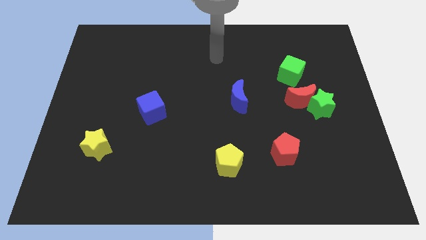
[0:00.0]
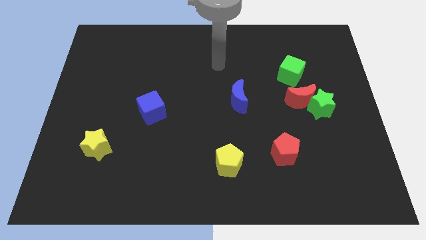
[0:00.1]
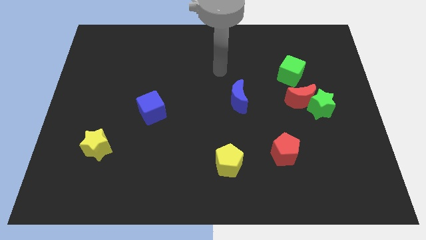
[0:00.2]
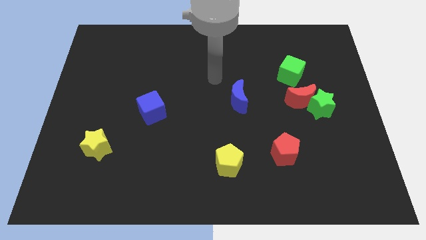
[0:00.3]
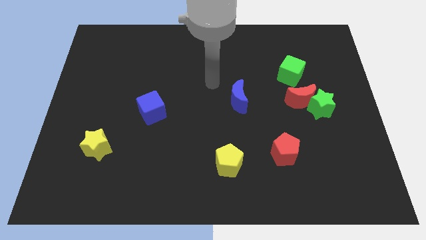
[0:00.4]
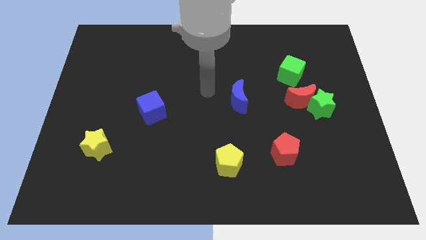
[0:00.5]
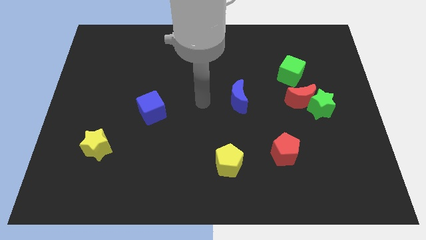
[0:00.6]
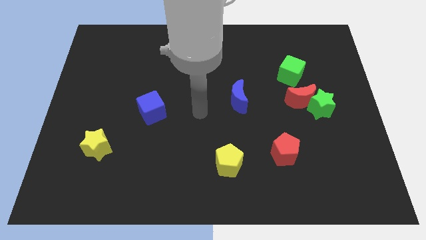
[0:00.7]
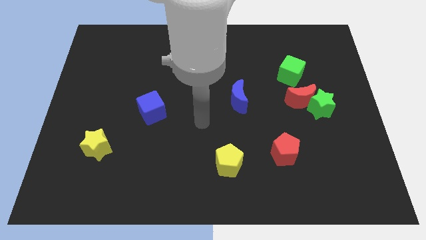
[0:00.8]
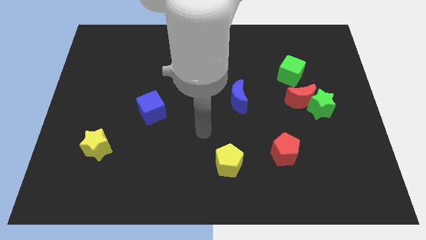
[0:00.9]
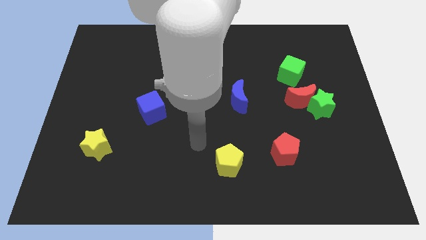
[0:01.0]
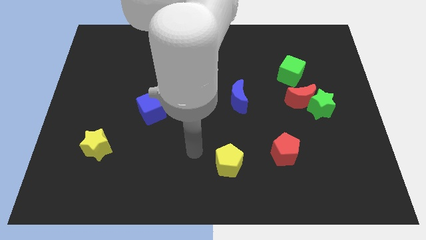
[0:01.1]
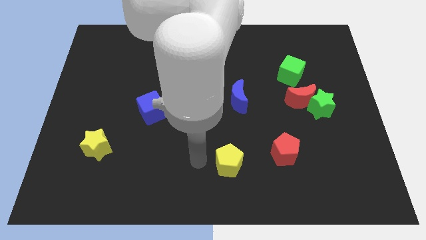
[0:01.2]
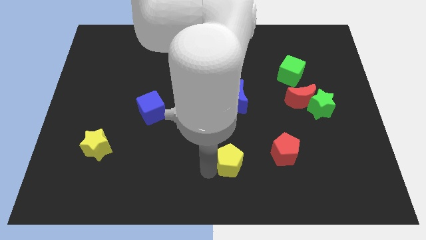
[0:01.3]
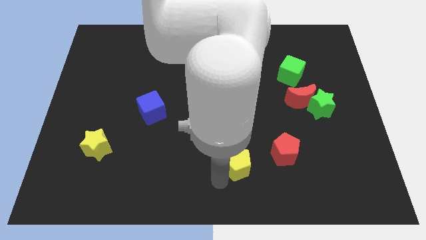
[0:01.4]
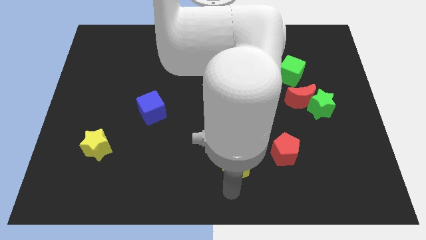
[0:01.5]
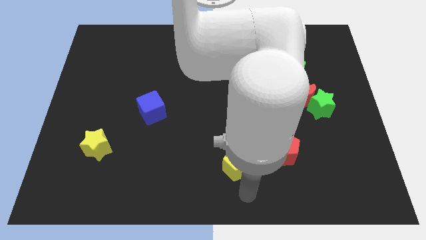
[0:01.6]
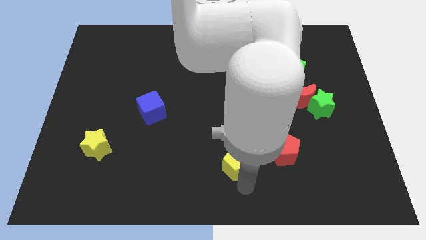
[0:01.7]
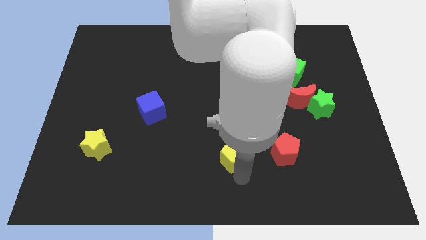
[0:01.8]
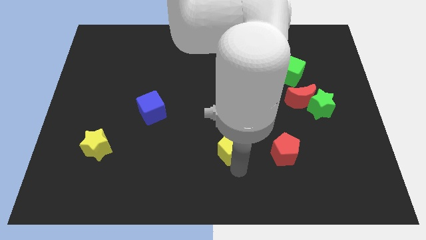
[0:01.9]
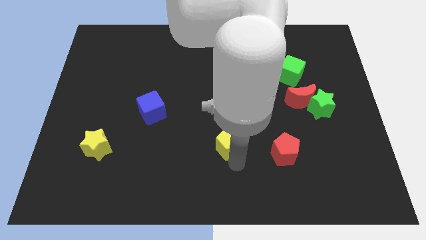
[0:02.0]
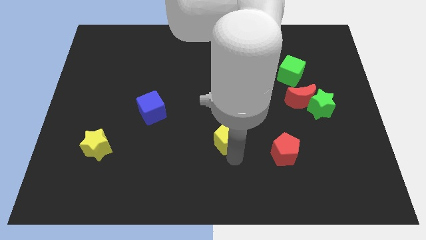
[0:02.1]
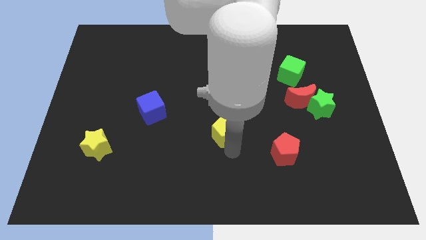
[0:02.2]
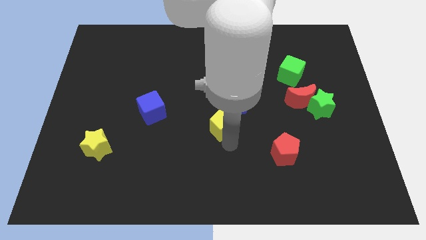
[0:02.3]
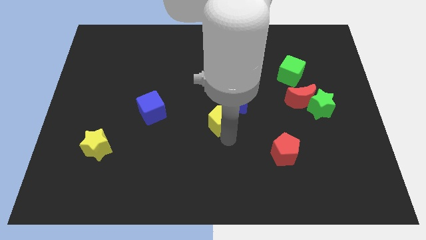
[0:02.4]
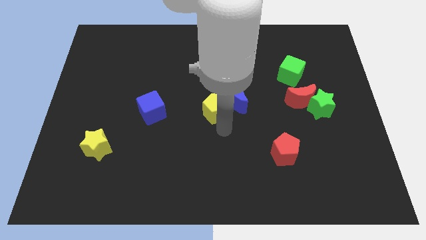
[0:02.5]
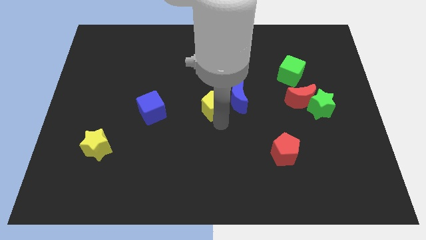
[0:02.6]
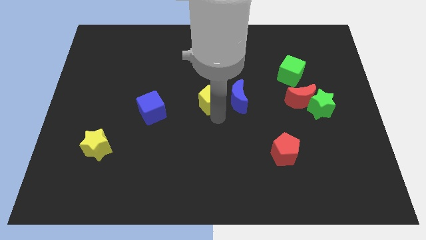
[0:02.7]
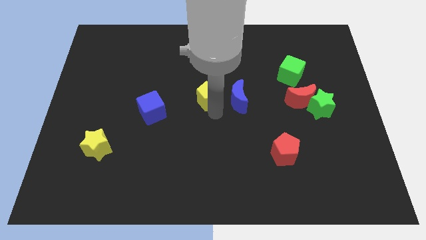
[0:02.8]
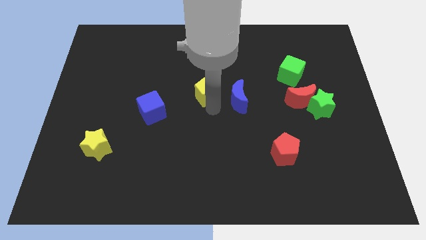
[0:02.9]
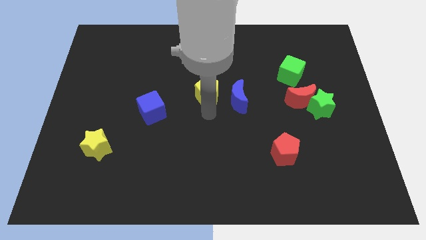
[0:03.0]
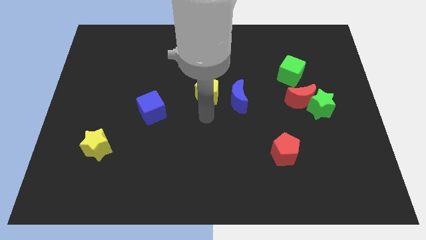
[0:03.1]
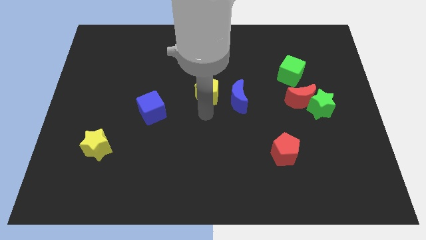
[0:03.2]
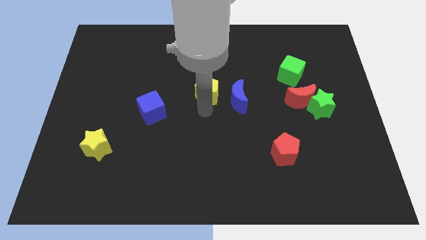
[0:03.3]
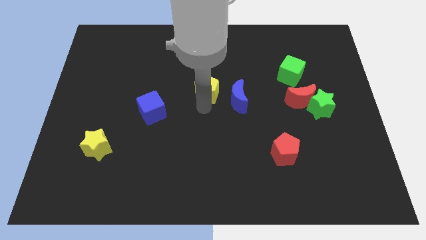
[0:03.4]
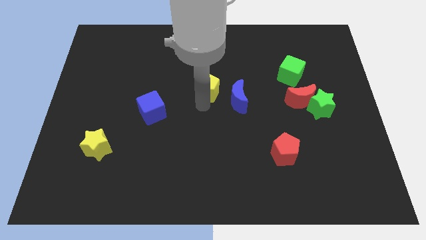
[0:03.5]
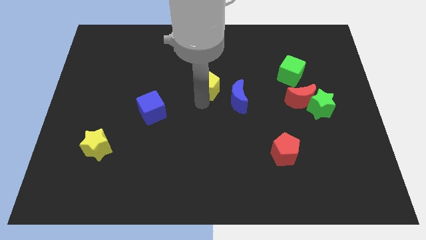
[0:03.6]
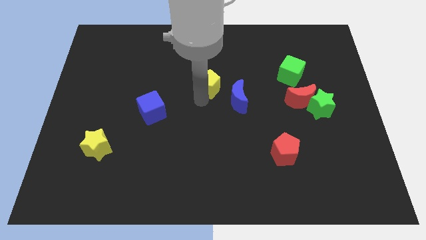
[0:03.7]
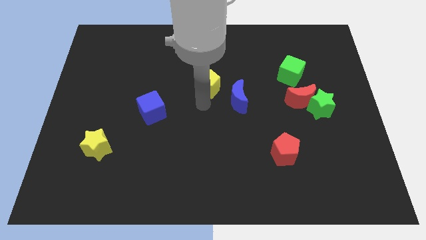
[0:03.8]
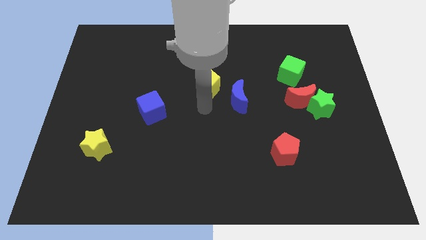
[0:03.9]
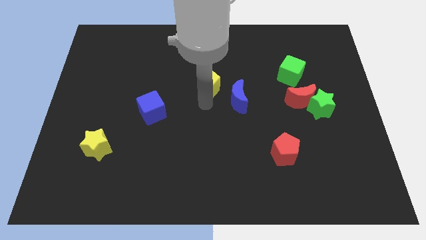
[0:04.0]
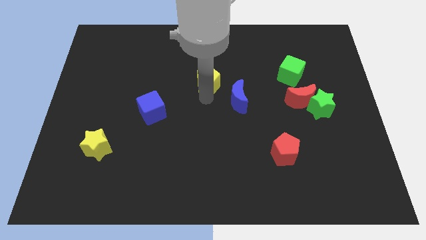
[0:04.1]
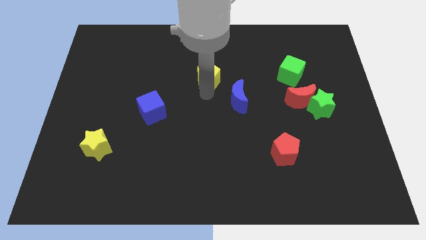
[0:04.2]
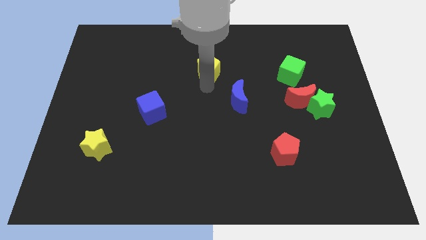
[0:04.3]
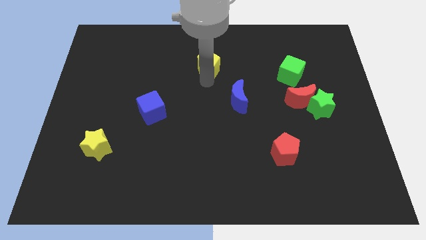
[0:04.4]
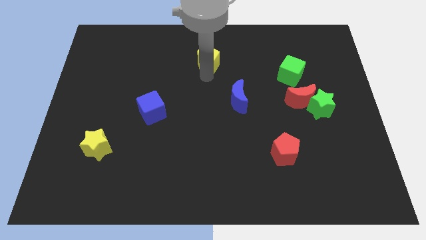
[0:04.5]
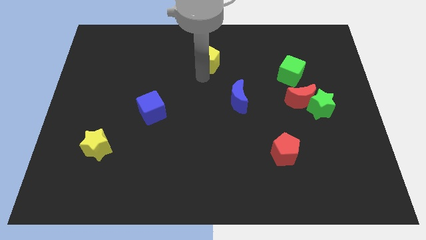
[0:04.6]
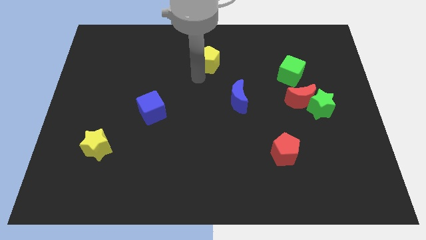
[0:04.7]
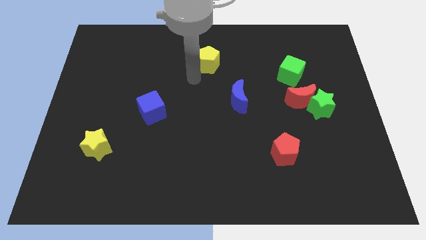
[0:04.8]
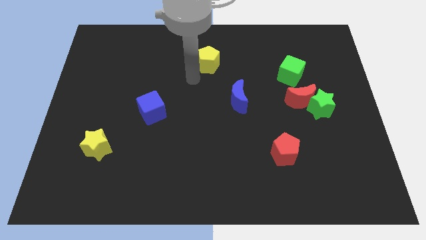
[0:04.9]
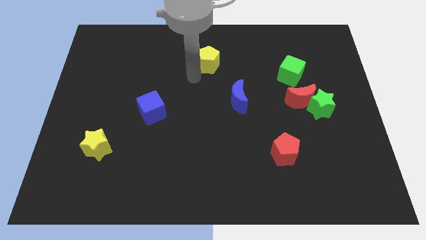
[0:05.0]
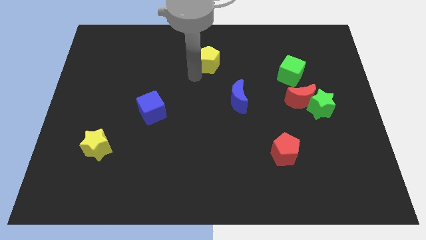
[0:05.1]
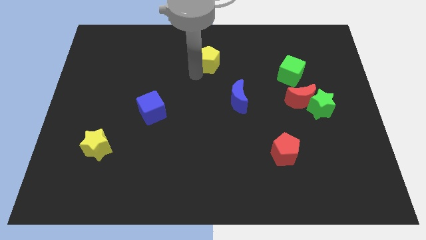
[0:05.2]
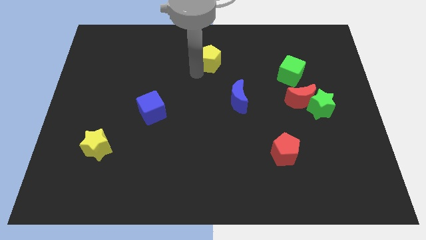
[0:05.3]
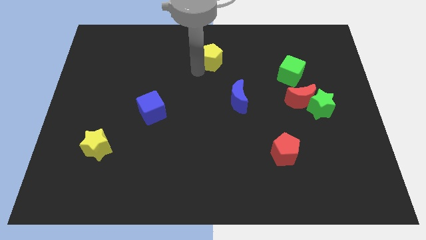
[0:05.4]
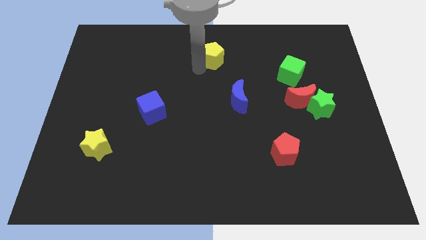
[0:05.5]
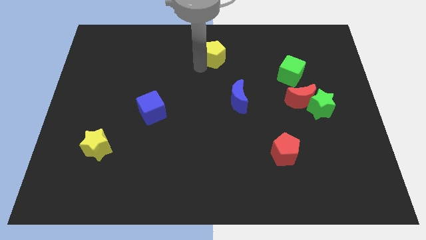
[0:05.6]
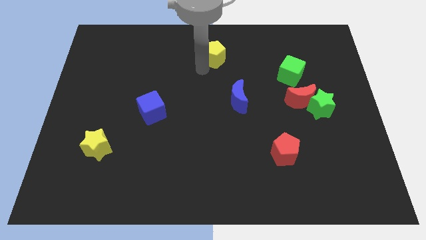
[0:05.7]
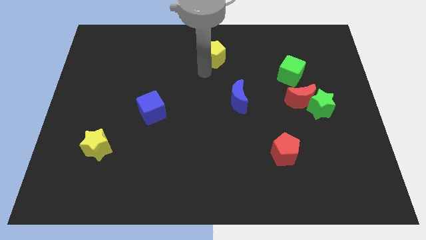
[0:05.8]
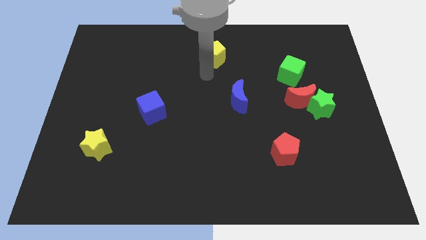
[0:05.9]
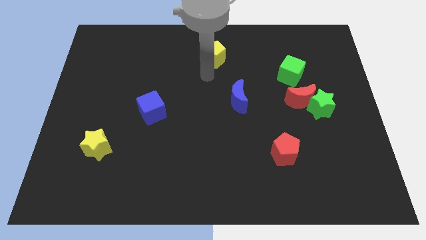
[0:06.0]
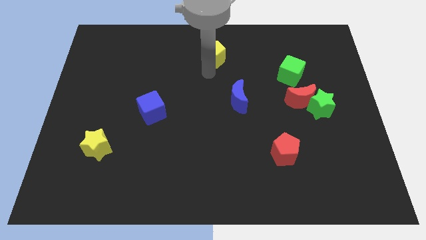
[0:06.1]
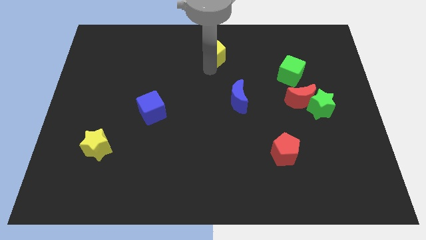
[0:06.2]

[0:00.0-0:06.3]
move the yellow pentagon to the top side
